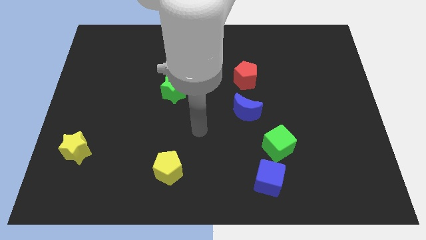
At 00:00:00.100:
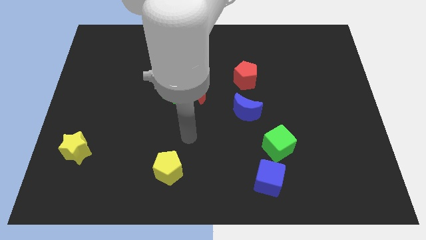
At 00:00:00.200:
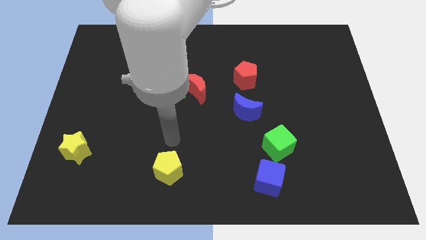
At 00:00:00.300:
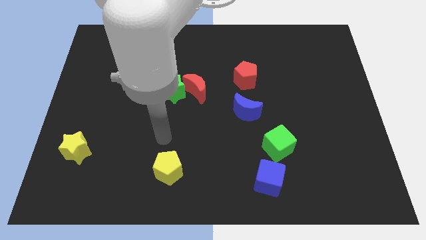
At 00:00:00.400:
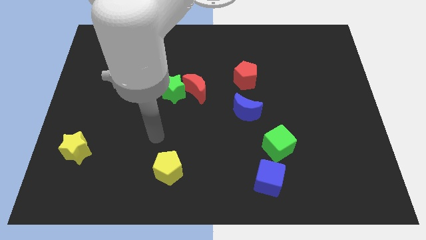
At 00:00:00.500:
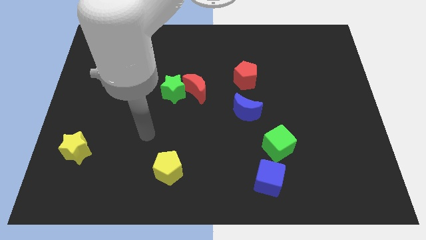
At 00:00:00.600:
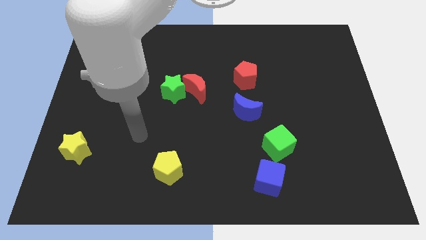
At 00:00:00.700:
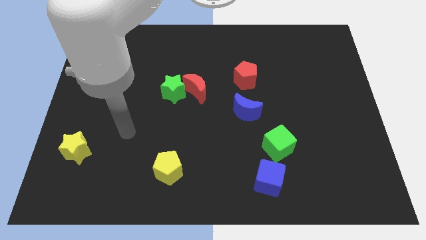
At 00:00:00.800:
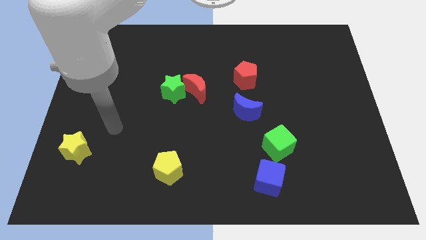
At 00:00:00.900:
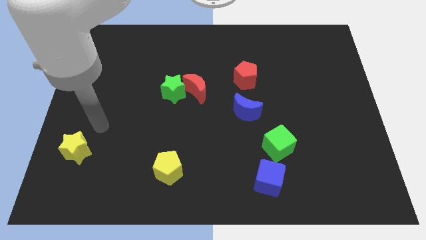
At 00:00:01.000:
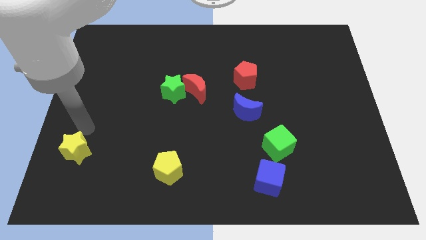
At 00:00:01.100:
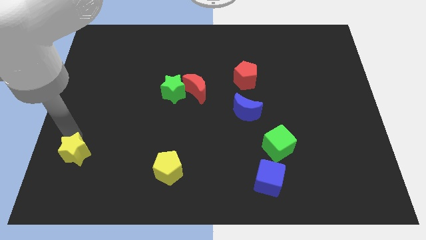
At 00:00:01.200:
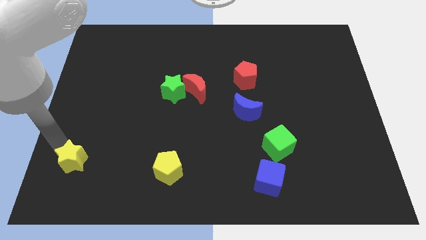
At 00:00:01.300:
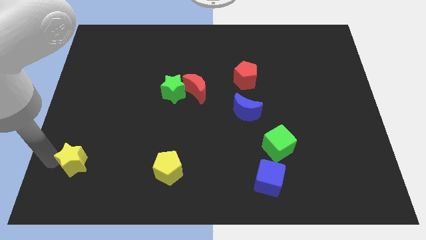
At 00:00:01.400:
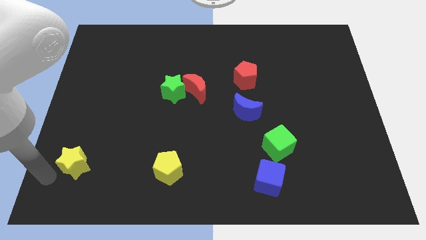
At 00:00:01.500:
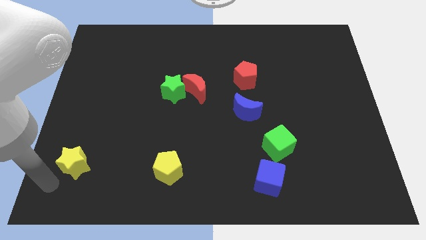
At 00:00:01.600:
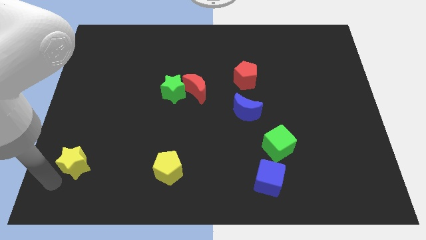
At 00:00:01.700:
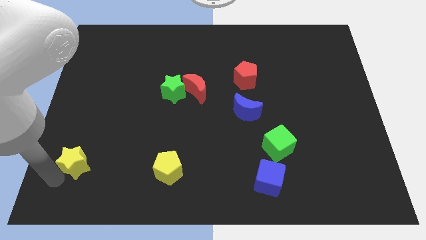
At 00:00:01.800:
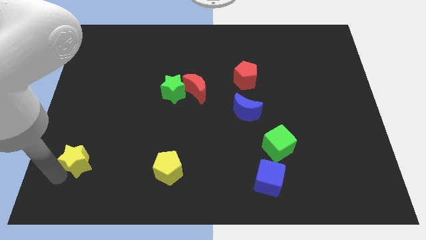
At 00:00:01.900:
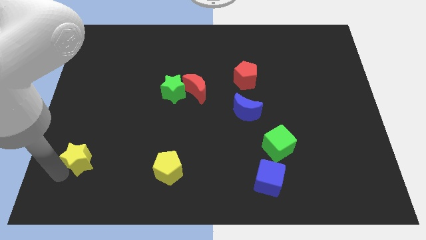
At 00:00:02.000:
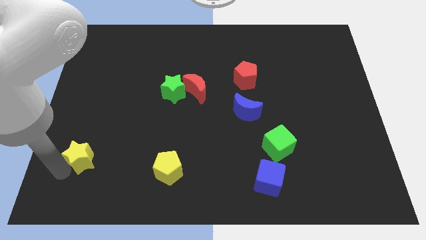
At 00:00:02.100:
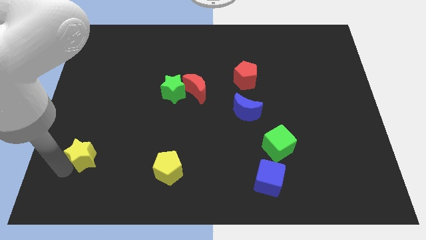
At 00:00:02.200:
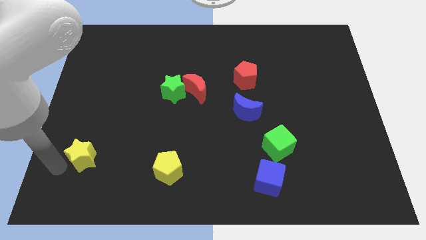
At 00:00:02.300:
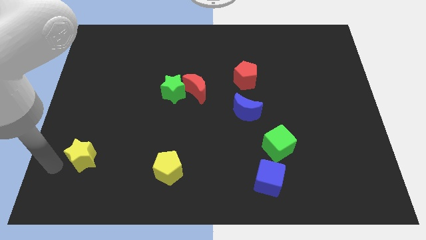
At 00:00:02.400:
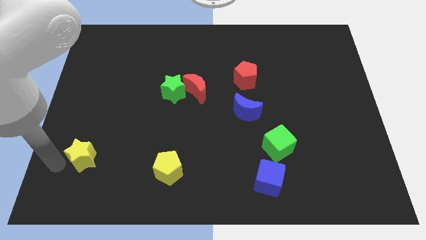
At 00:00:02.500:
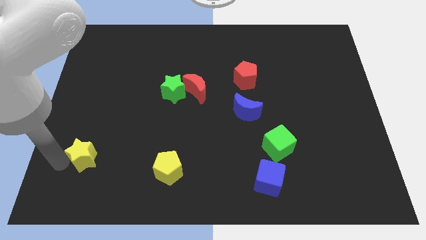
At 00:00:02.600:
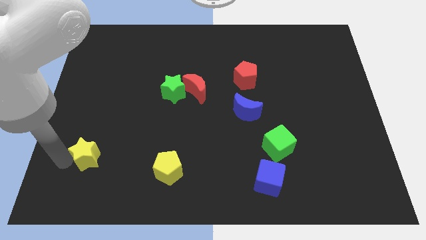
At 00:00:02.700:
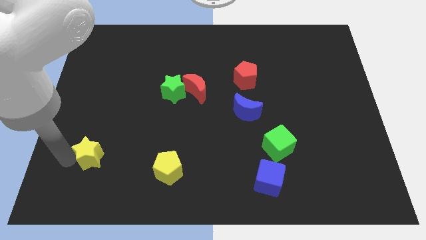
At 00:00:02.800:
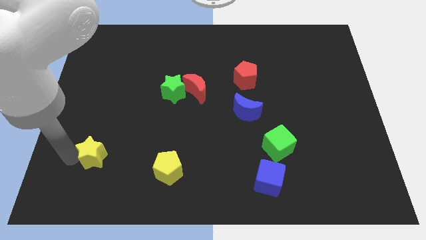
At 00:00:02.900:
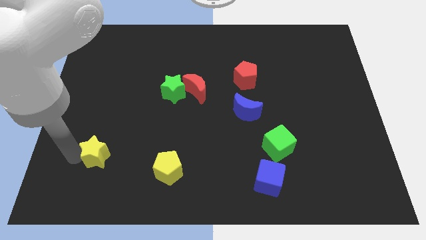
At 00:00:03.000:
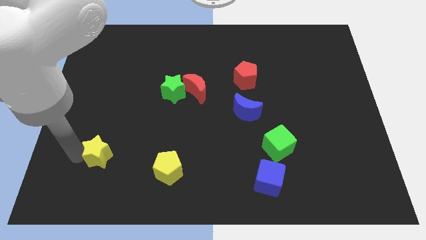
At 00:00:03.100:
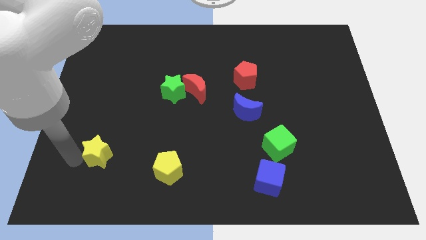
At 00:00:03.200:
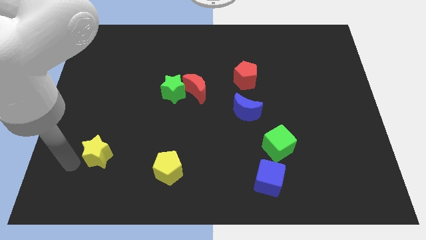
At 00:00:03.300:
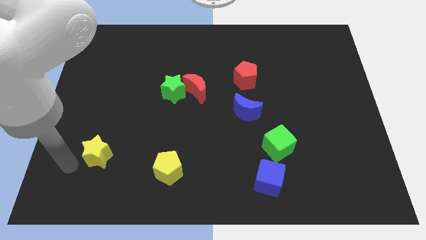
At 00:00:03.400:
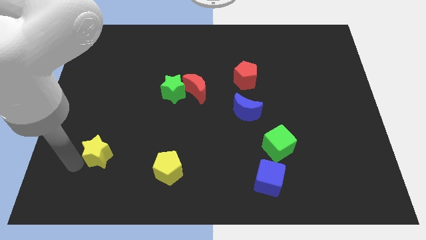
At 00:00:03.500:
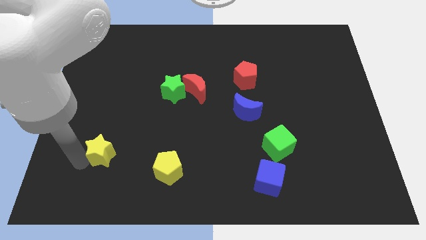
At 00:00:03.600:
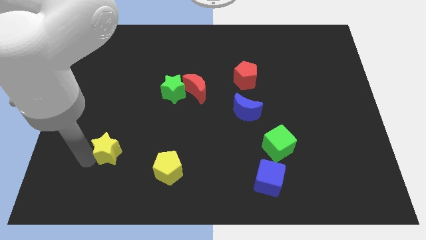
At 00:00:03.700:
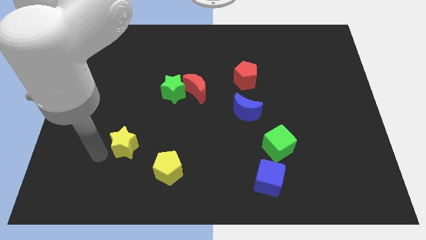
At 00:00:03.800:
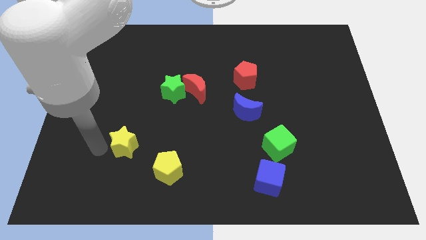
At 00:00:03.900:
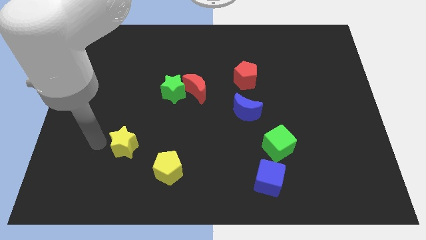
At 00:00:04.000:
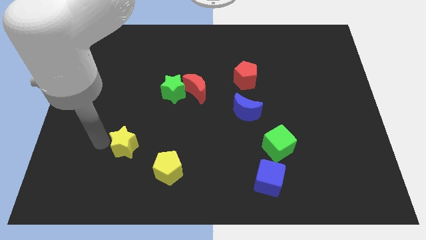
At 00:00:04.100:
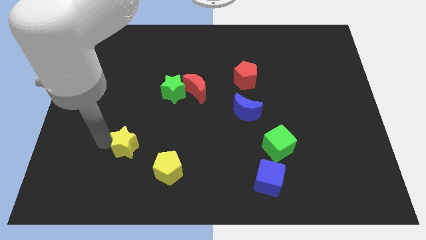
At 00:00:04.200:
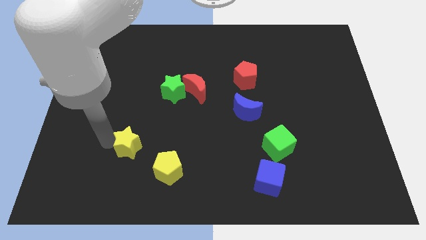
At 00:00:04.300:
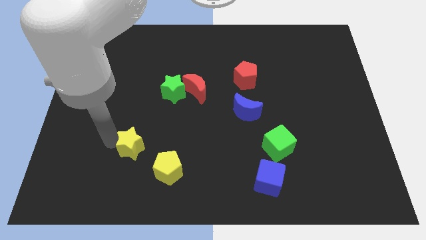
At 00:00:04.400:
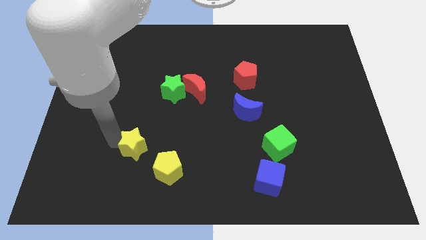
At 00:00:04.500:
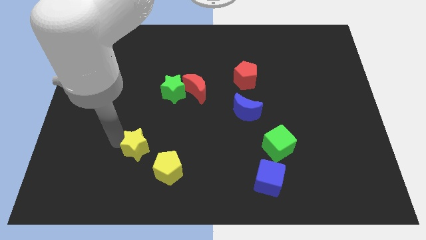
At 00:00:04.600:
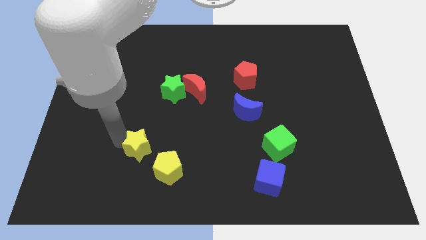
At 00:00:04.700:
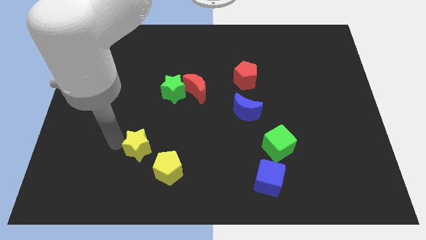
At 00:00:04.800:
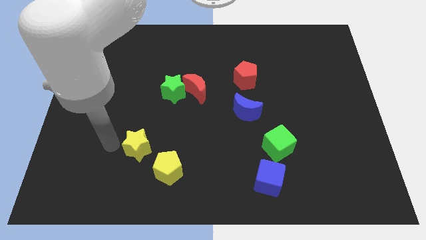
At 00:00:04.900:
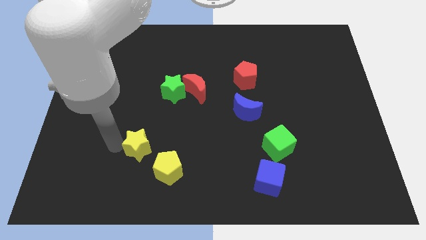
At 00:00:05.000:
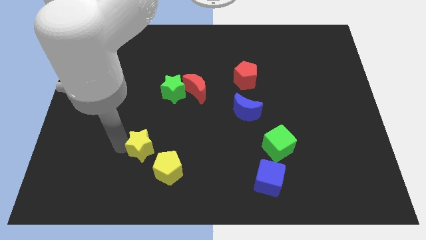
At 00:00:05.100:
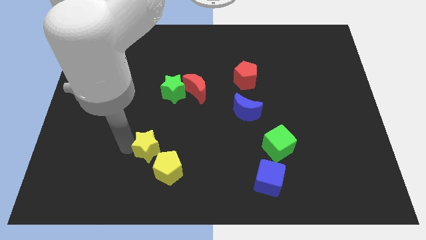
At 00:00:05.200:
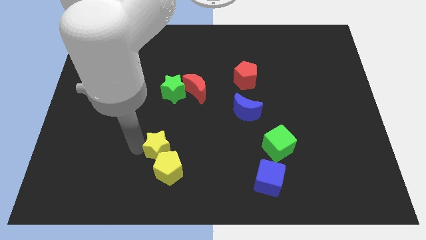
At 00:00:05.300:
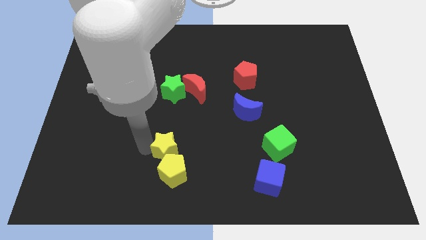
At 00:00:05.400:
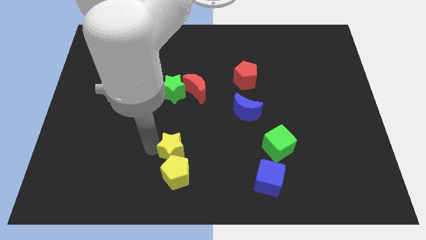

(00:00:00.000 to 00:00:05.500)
move the yellow star to the right

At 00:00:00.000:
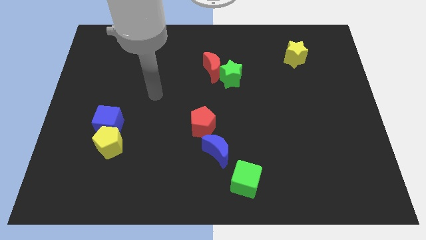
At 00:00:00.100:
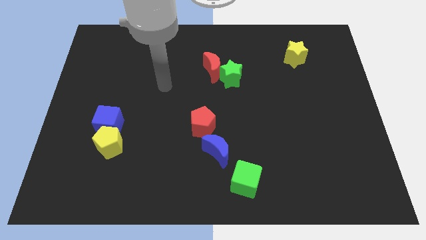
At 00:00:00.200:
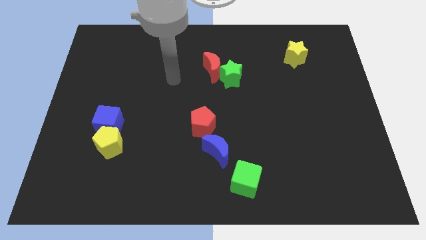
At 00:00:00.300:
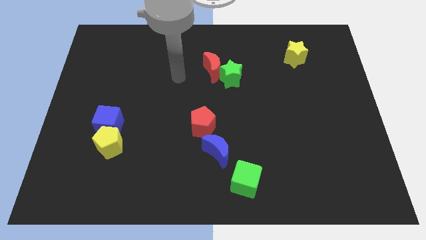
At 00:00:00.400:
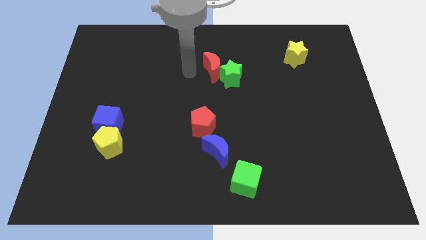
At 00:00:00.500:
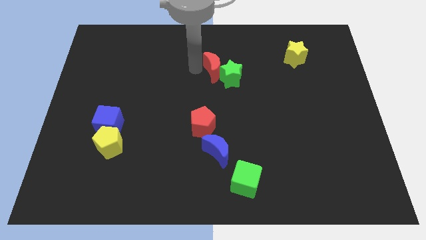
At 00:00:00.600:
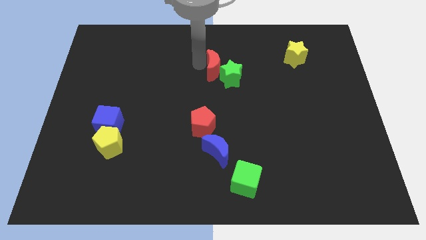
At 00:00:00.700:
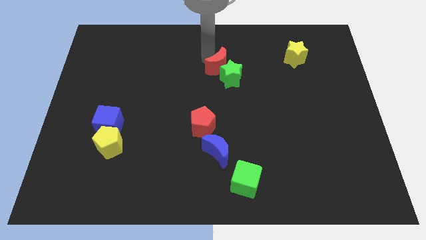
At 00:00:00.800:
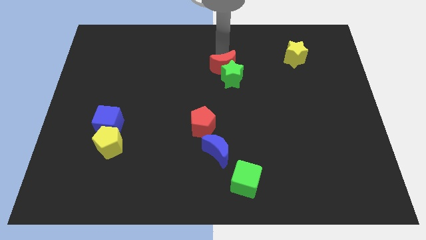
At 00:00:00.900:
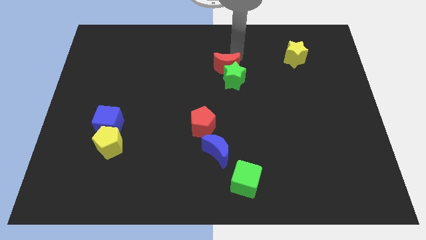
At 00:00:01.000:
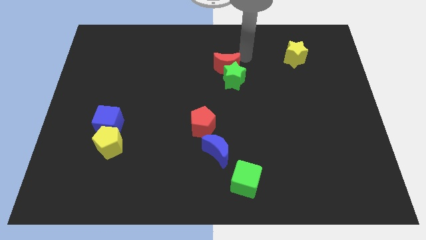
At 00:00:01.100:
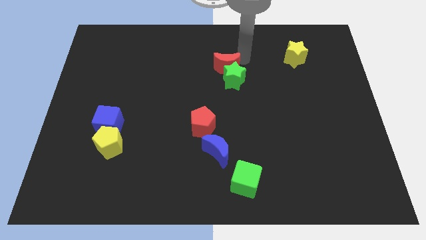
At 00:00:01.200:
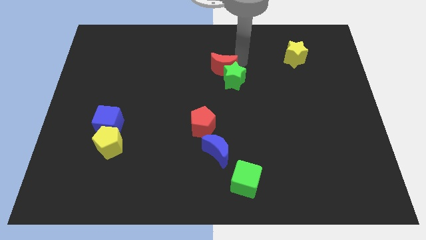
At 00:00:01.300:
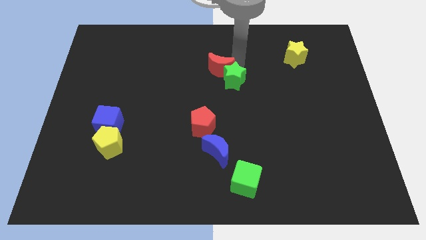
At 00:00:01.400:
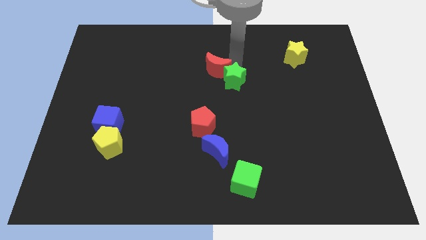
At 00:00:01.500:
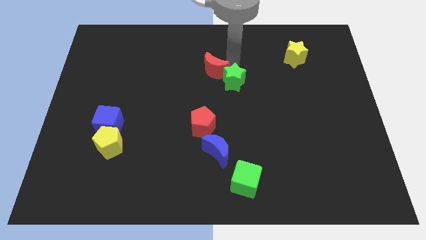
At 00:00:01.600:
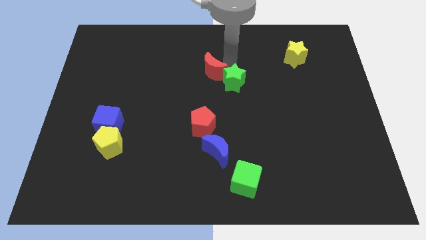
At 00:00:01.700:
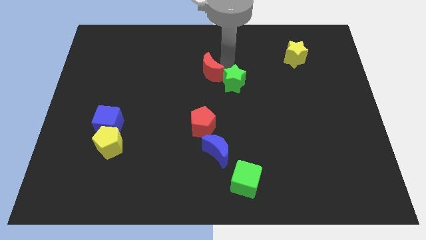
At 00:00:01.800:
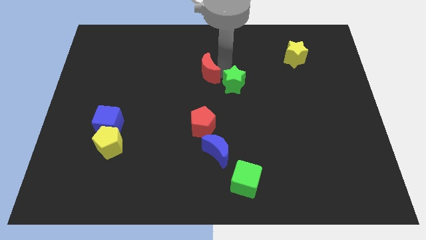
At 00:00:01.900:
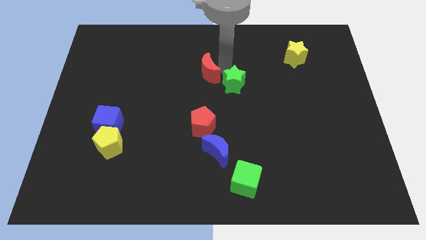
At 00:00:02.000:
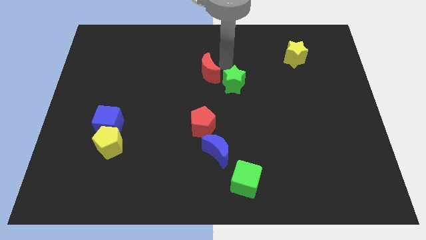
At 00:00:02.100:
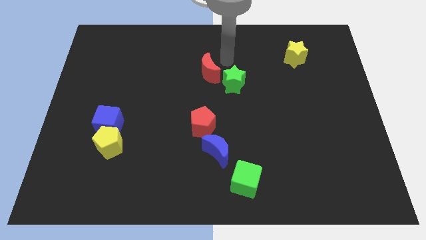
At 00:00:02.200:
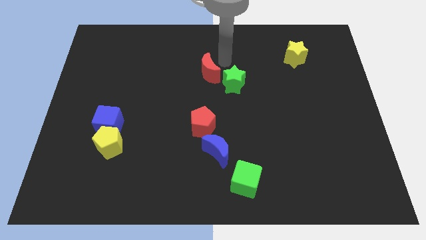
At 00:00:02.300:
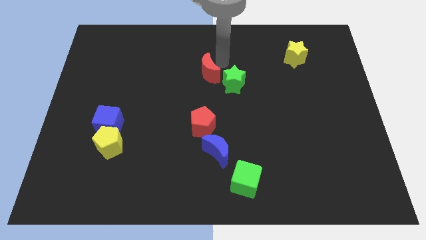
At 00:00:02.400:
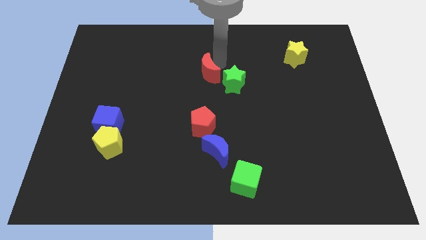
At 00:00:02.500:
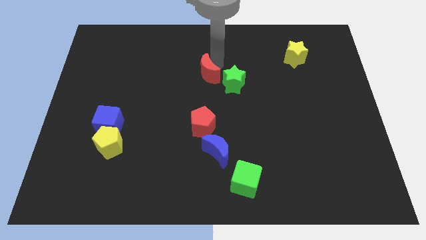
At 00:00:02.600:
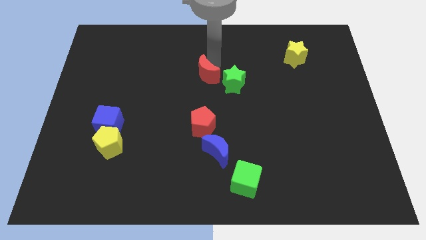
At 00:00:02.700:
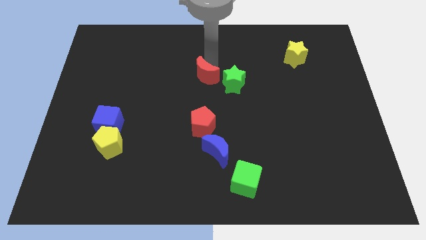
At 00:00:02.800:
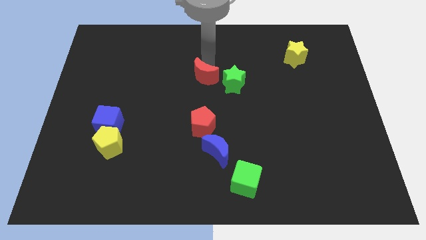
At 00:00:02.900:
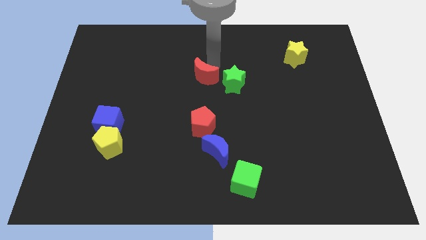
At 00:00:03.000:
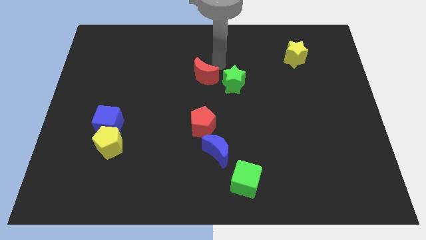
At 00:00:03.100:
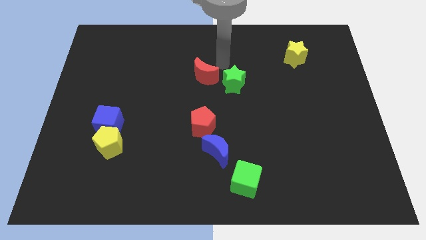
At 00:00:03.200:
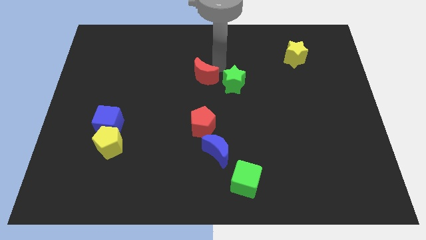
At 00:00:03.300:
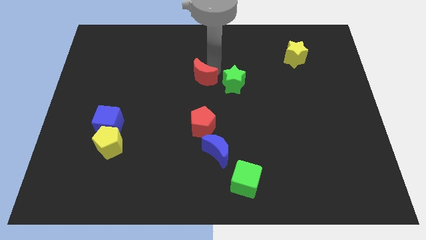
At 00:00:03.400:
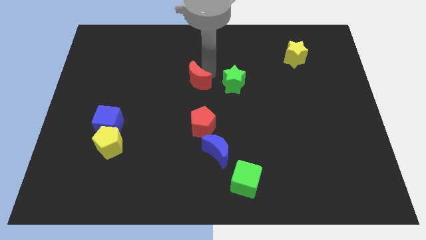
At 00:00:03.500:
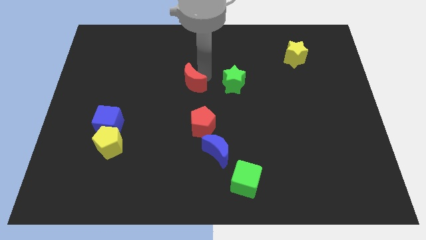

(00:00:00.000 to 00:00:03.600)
slide the red moon downwards and to the left diagonally a little
